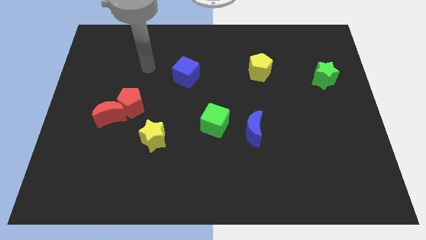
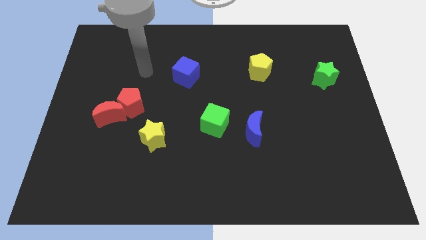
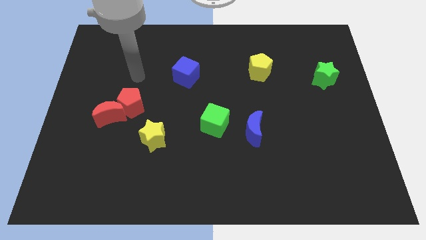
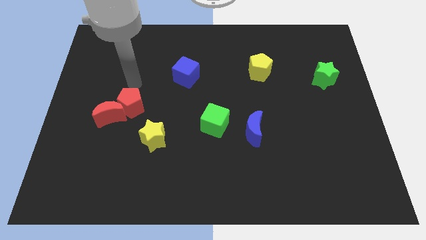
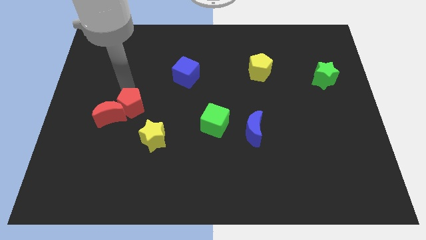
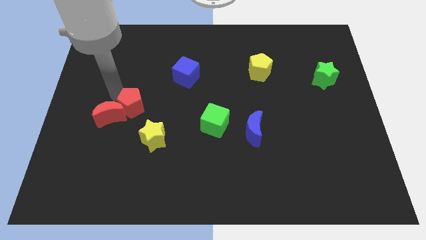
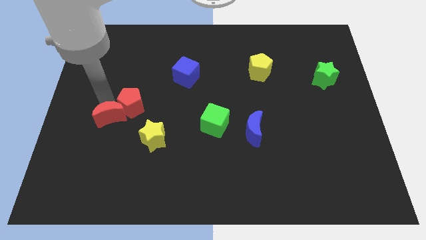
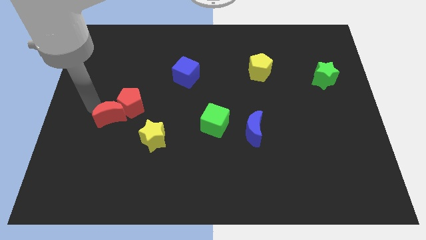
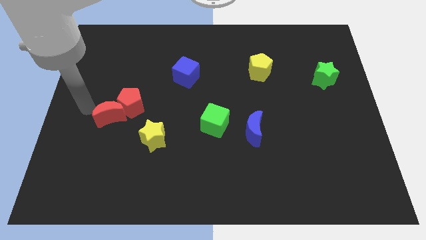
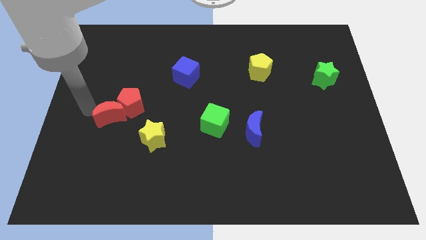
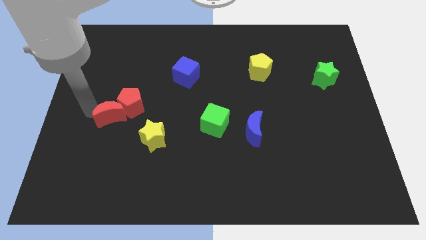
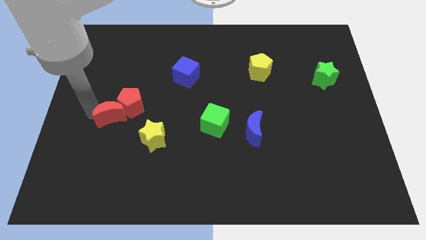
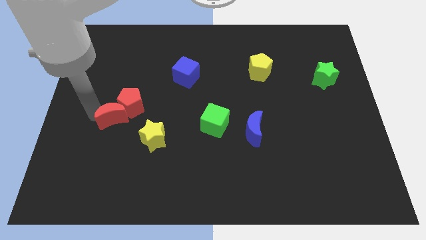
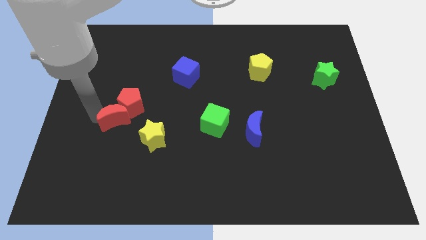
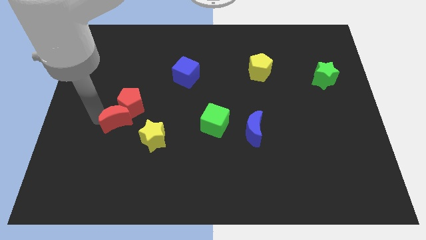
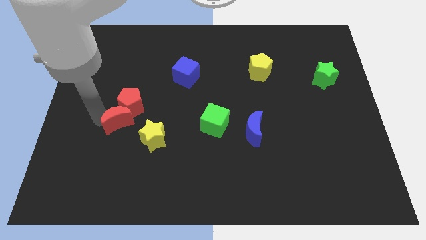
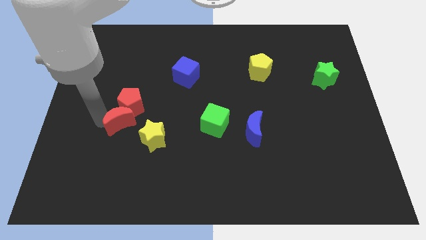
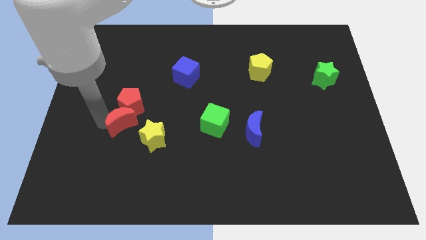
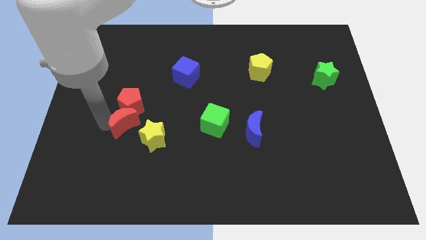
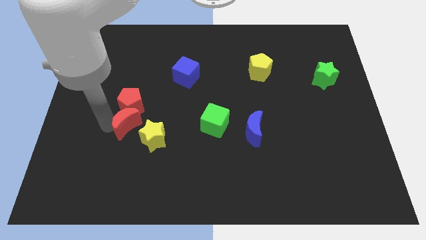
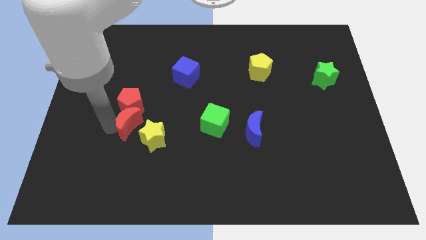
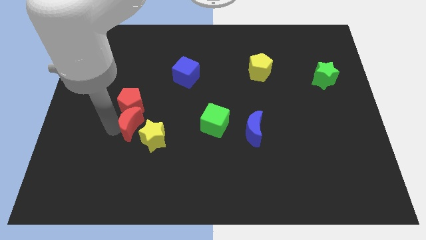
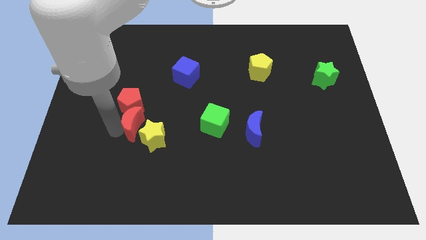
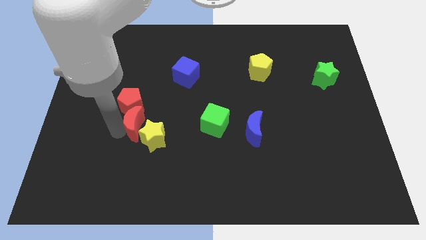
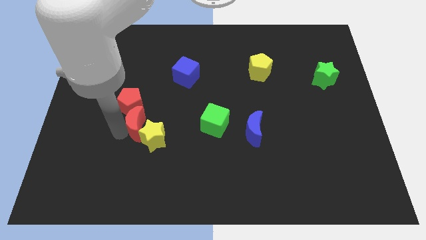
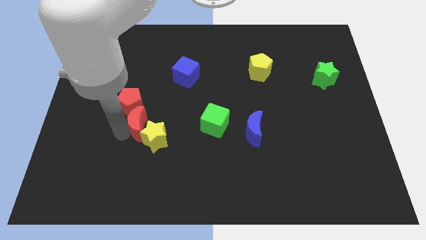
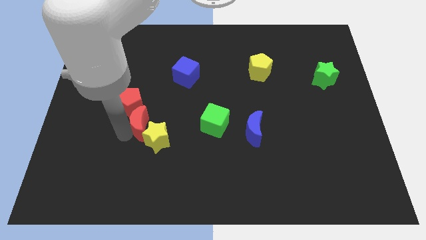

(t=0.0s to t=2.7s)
slightly push the red moon to the right

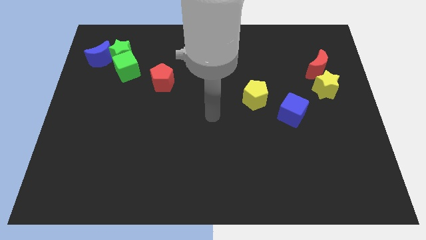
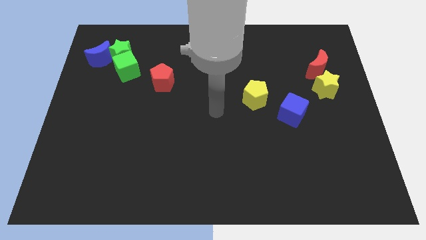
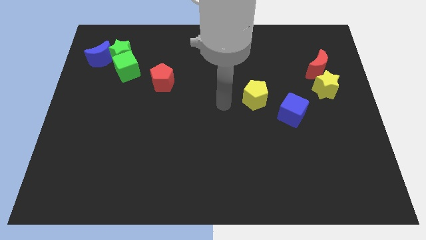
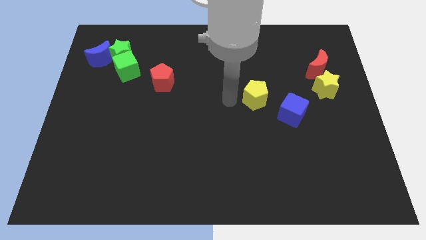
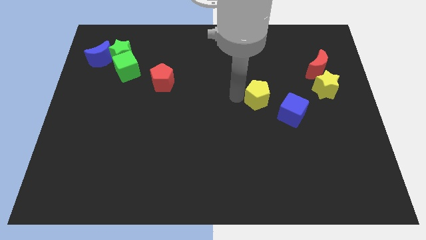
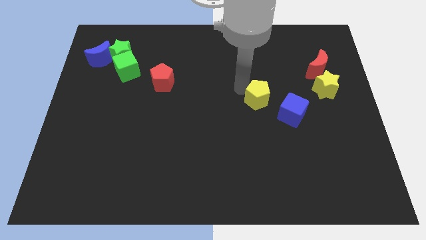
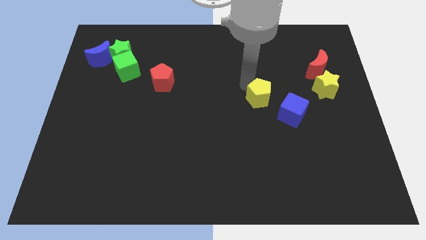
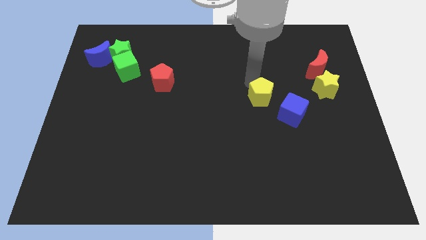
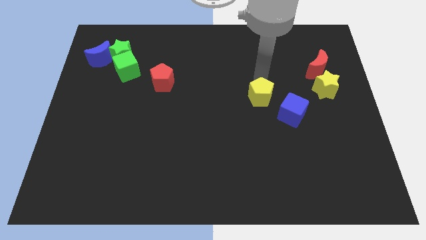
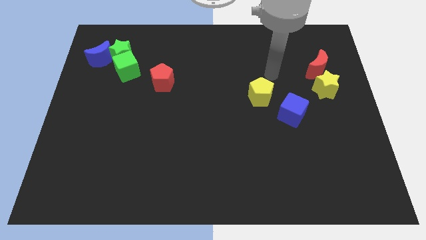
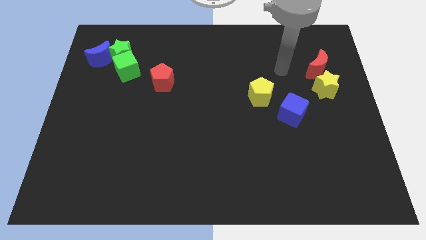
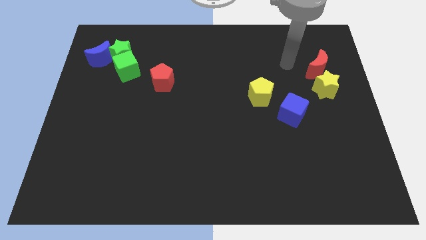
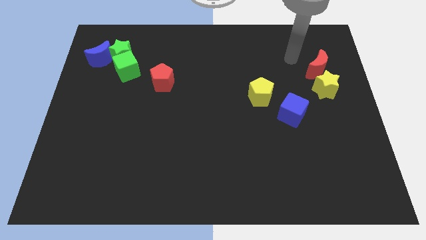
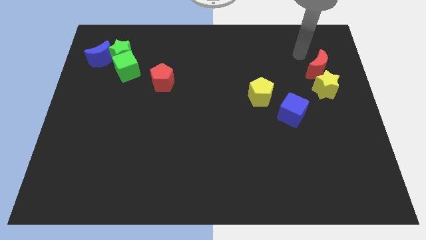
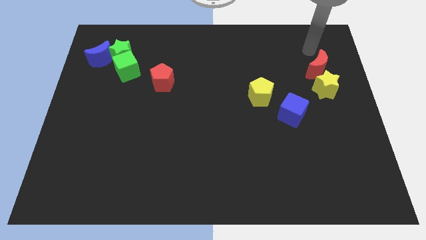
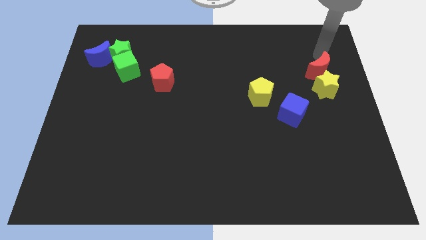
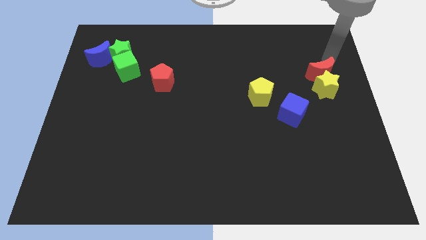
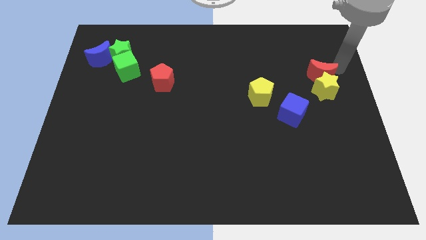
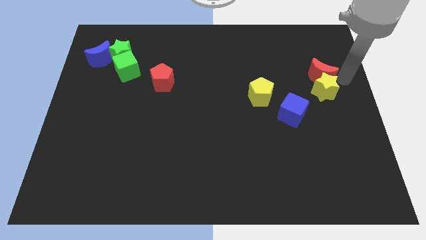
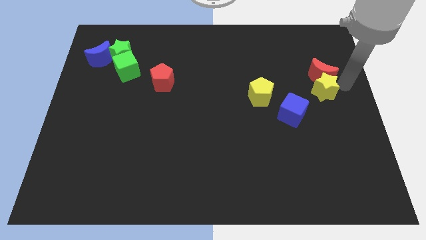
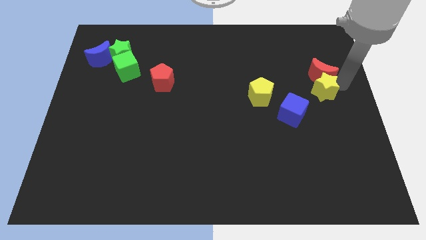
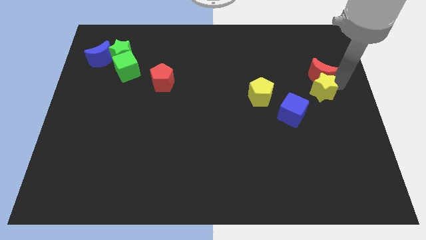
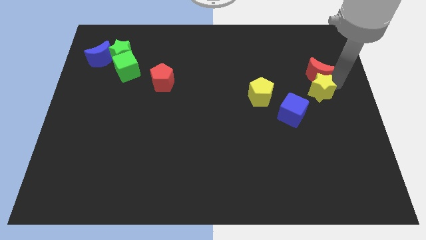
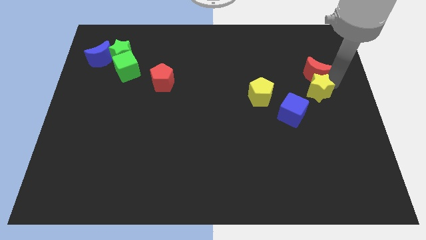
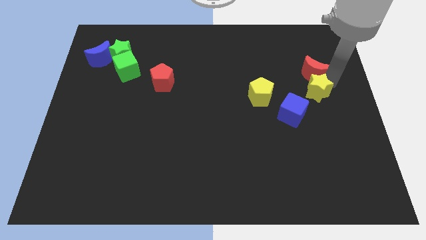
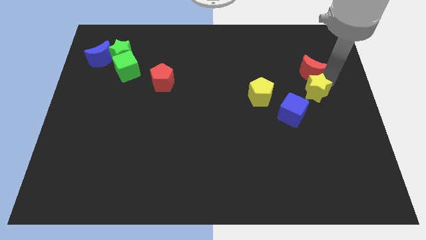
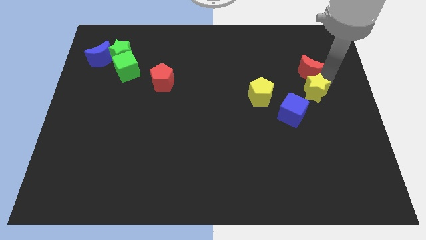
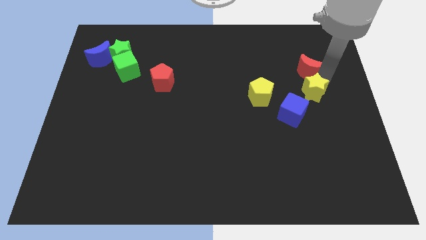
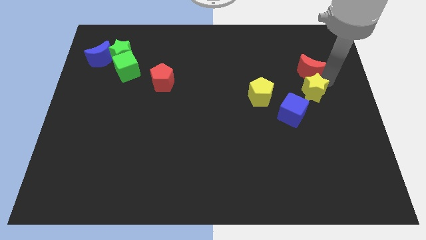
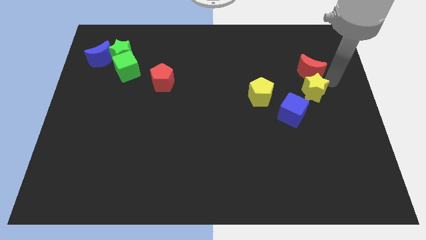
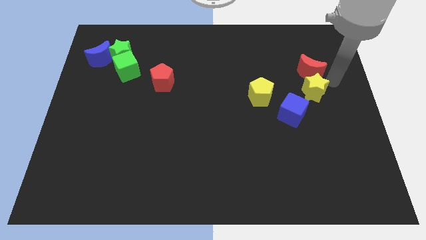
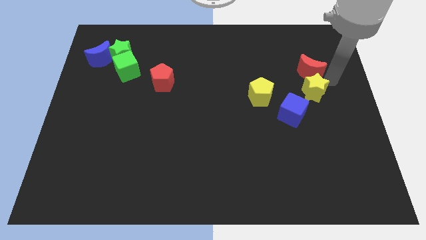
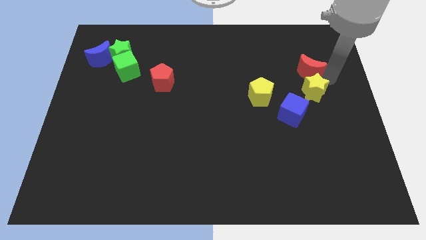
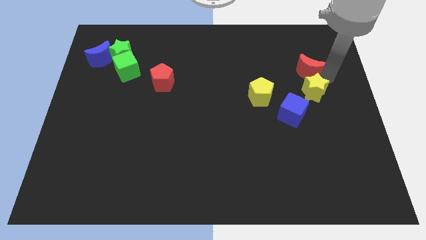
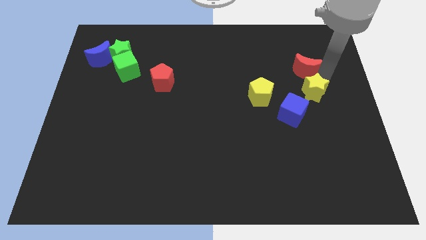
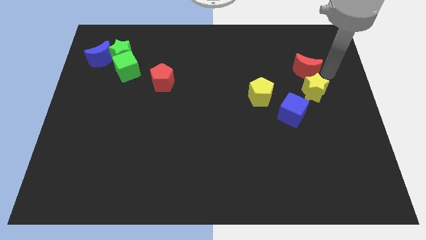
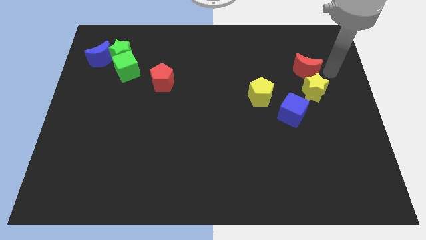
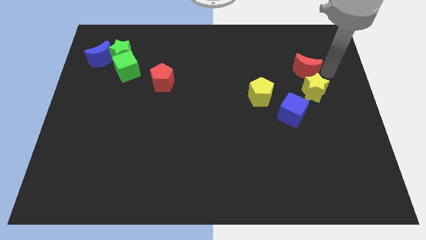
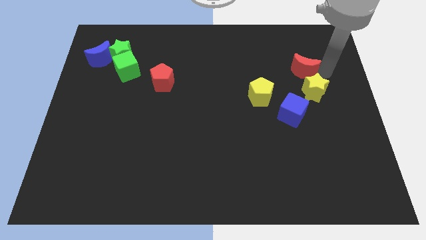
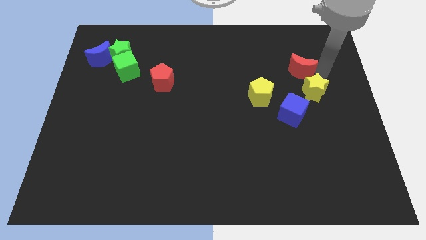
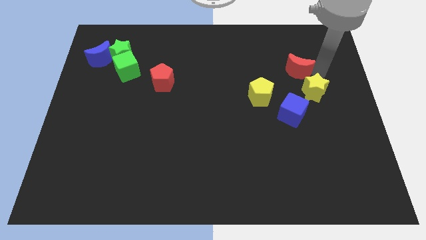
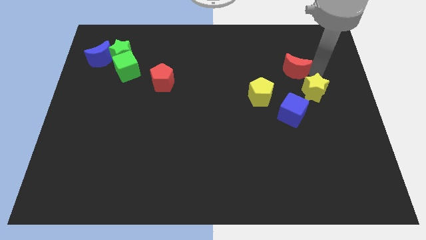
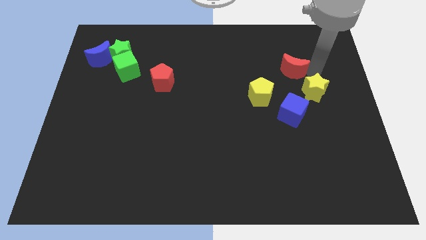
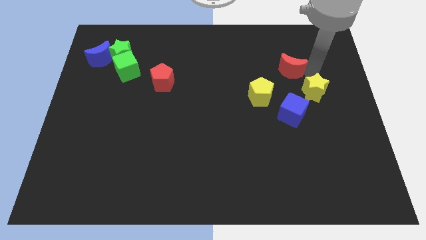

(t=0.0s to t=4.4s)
slightly move the red moon to the left

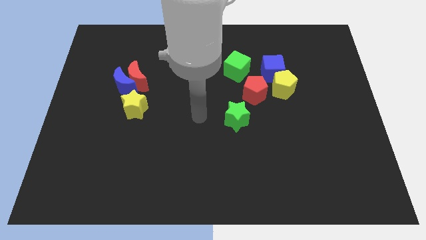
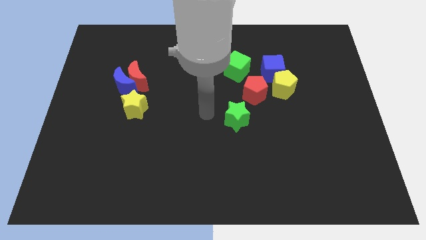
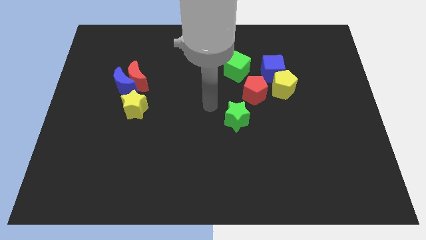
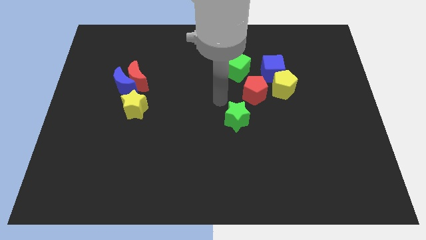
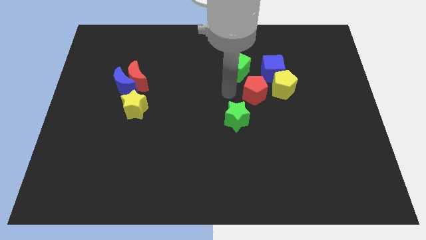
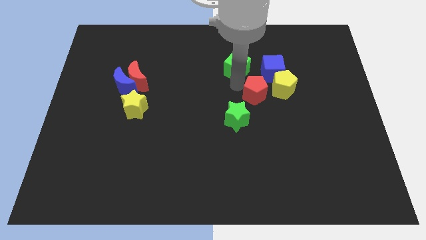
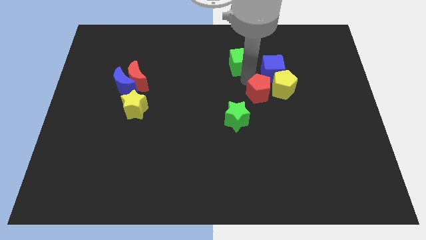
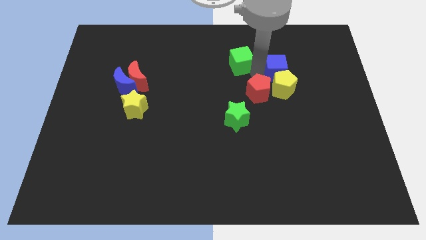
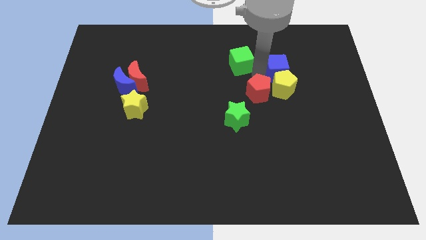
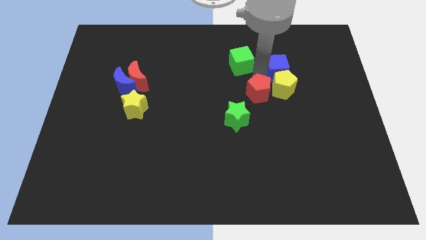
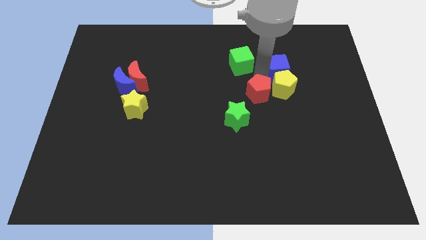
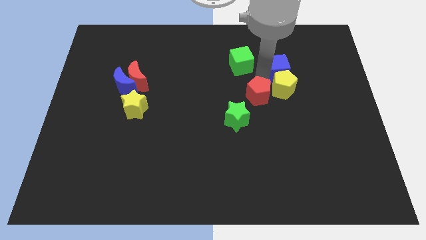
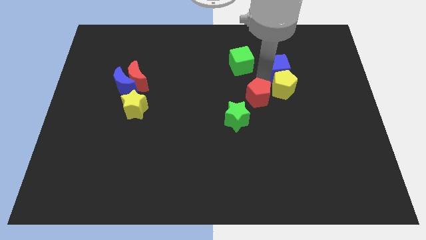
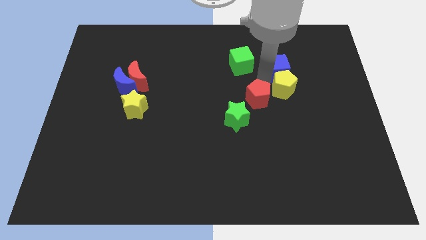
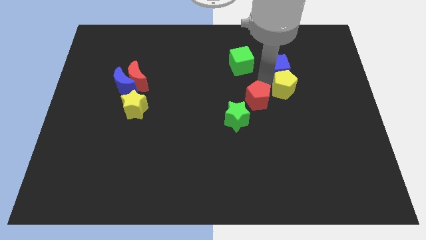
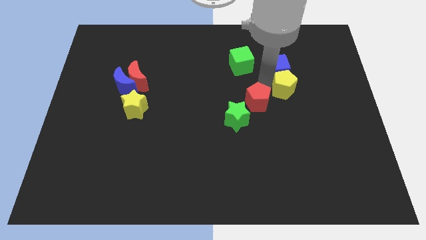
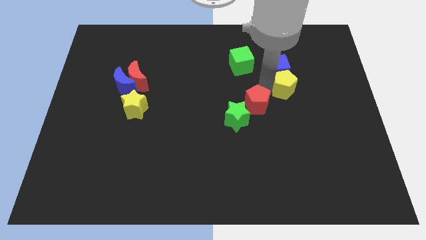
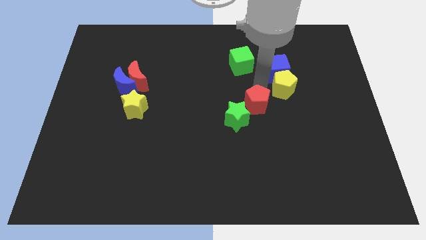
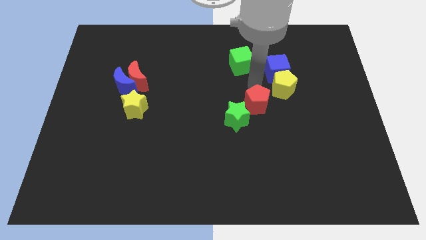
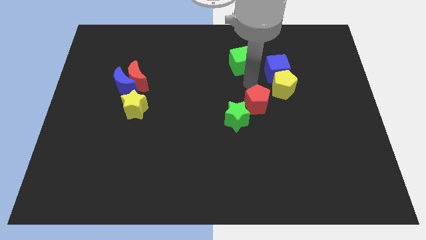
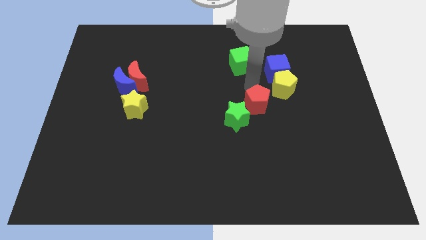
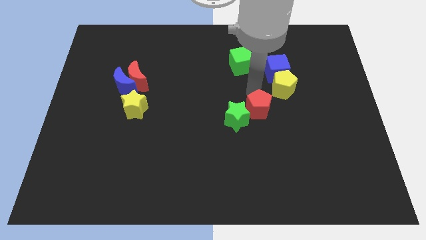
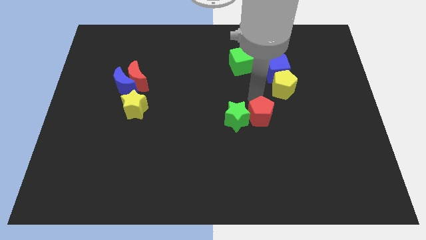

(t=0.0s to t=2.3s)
slightly push the red pentagon downwards
